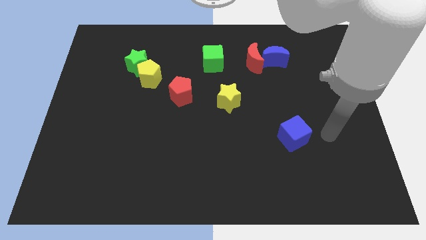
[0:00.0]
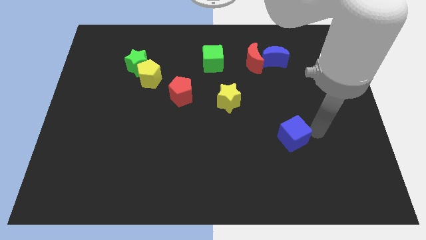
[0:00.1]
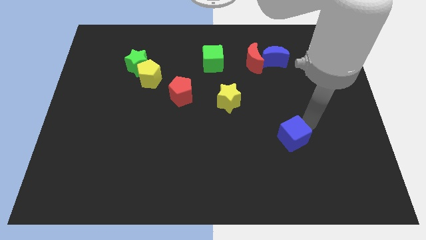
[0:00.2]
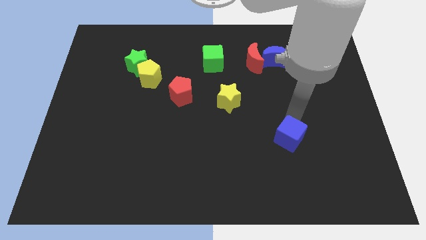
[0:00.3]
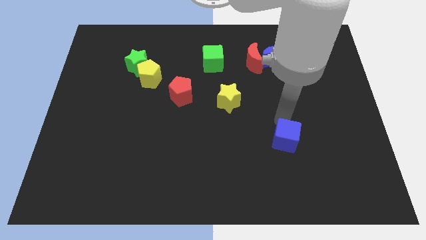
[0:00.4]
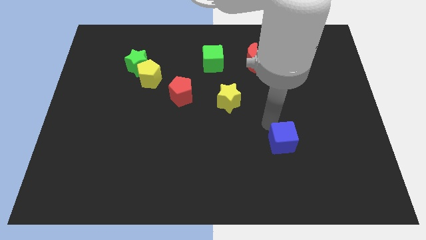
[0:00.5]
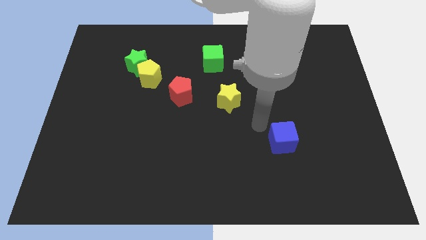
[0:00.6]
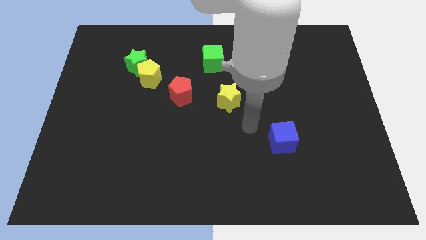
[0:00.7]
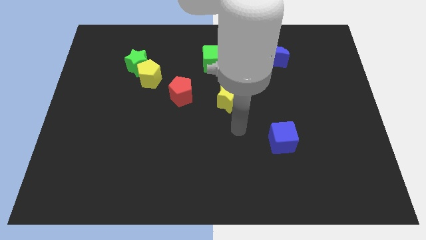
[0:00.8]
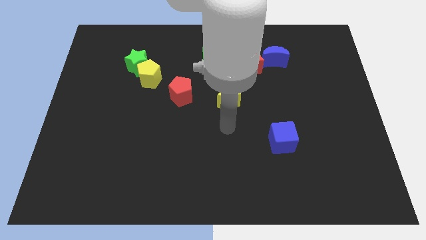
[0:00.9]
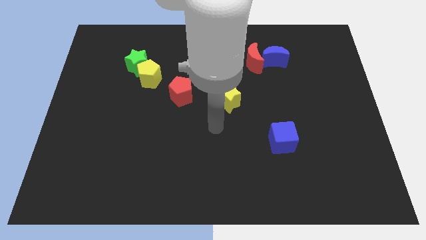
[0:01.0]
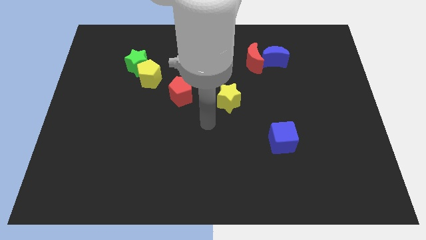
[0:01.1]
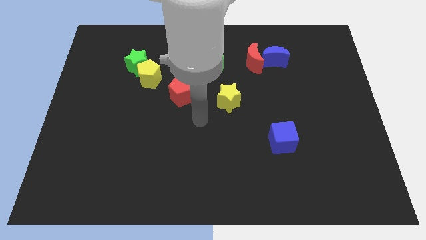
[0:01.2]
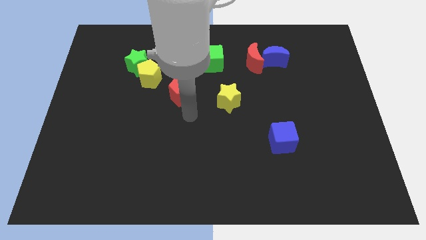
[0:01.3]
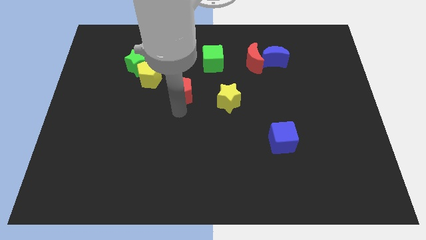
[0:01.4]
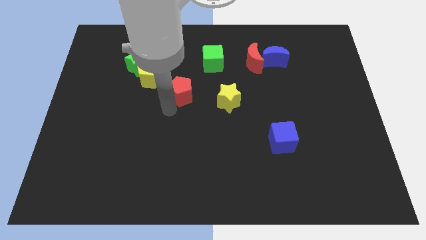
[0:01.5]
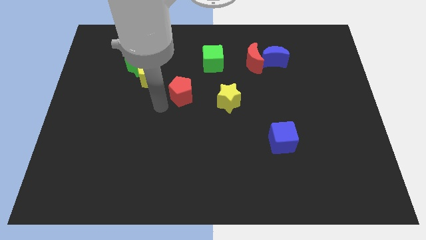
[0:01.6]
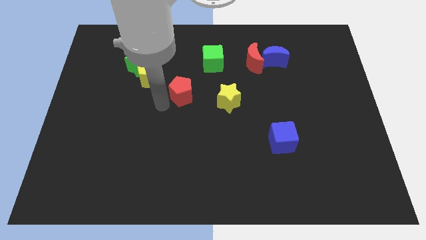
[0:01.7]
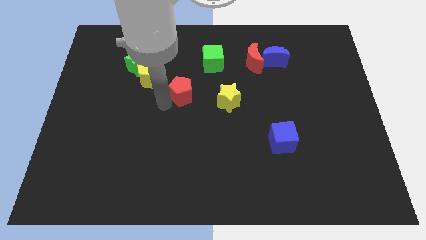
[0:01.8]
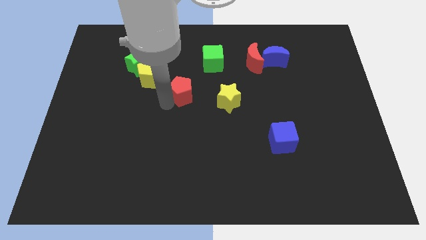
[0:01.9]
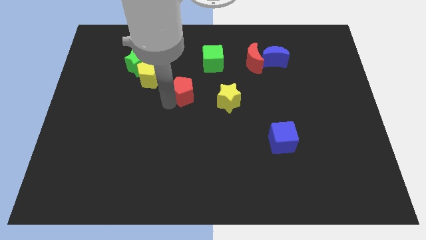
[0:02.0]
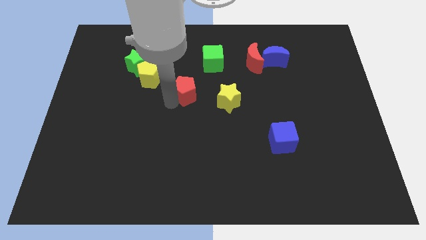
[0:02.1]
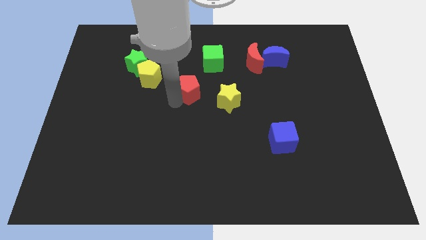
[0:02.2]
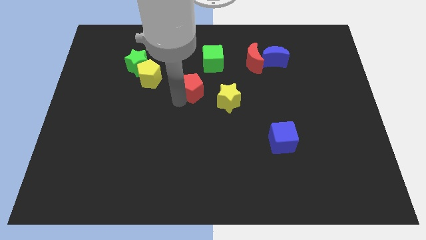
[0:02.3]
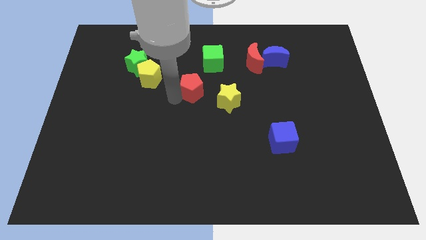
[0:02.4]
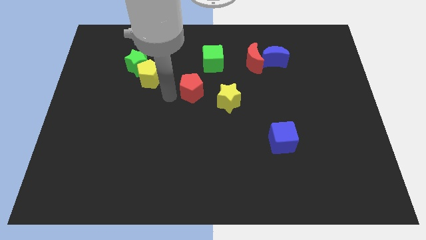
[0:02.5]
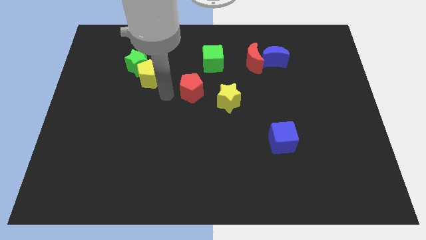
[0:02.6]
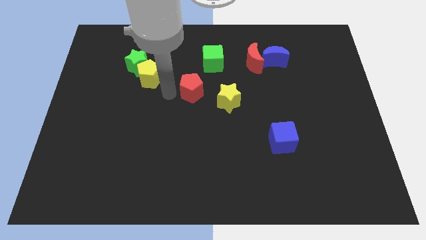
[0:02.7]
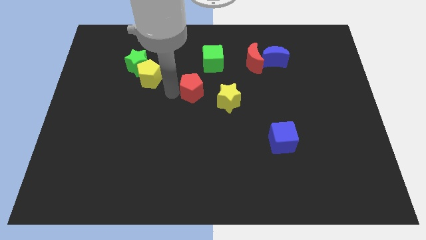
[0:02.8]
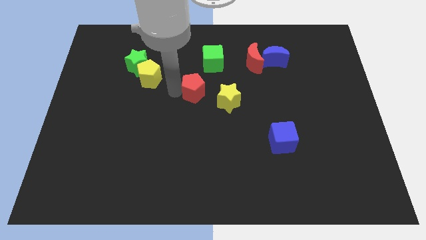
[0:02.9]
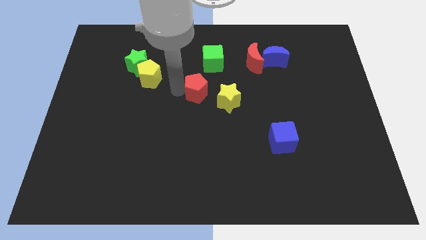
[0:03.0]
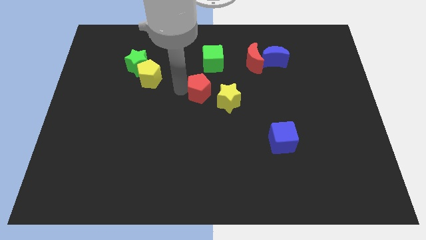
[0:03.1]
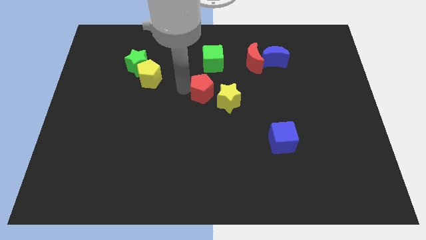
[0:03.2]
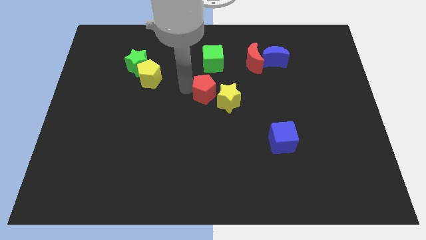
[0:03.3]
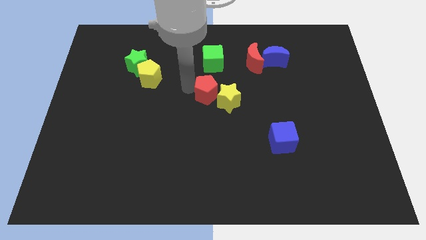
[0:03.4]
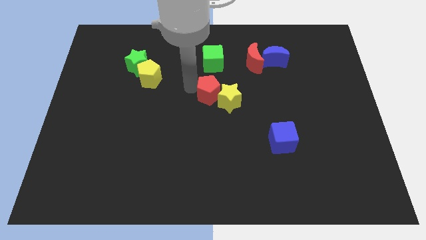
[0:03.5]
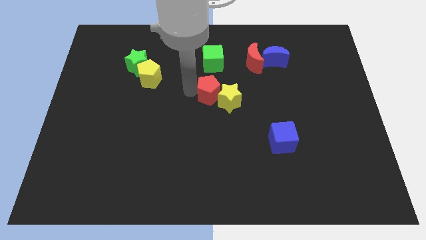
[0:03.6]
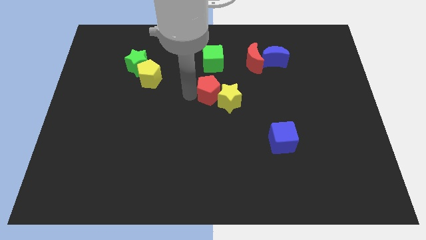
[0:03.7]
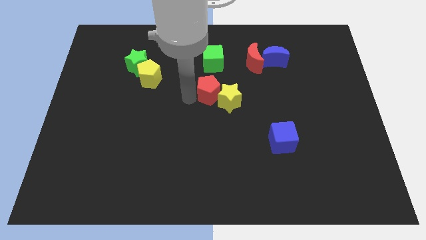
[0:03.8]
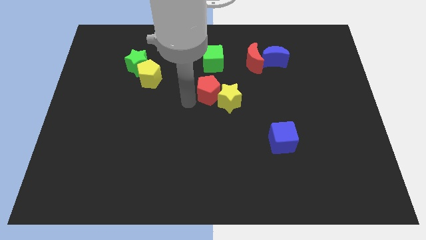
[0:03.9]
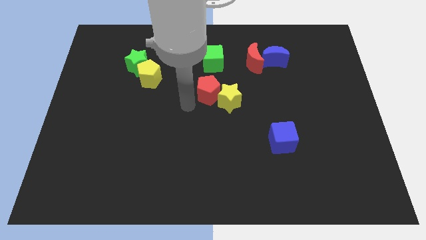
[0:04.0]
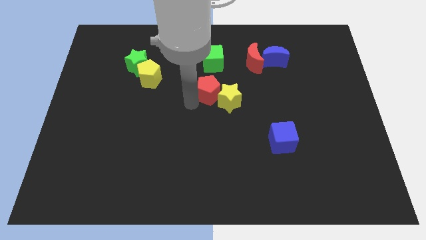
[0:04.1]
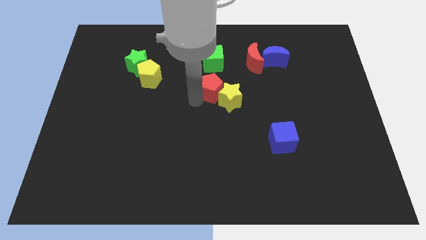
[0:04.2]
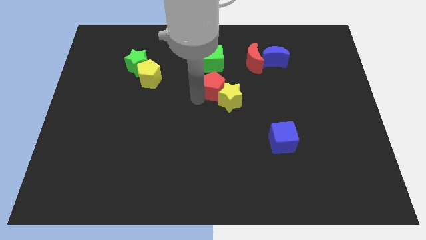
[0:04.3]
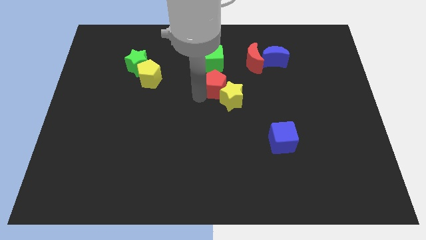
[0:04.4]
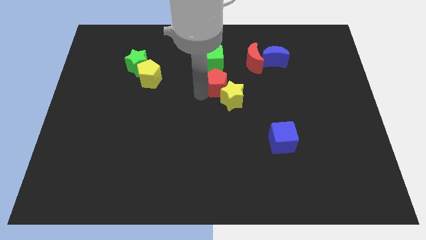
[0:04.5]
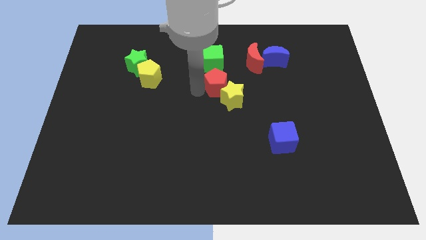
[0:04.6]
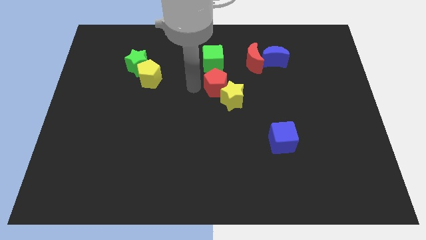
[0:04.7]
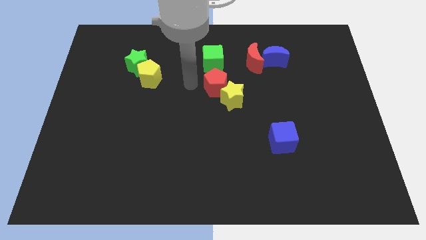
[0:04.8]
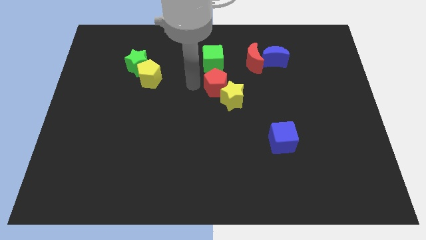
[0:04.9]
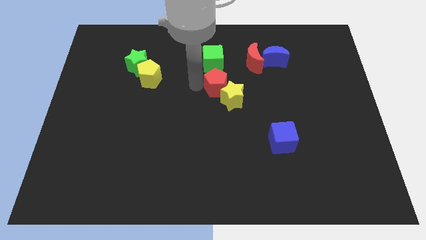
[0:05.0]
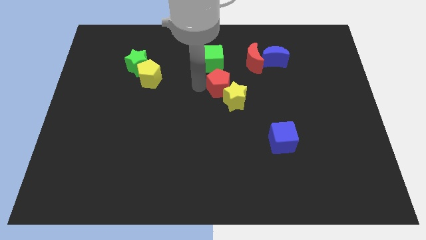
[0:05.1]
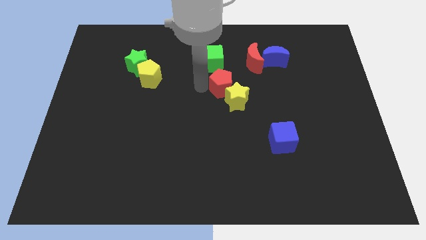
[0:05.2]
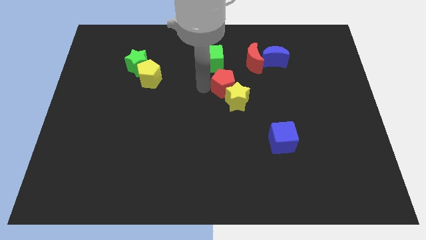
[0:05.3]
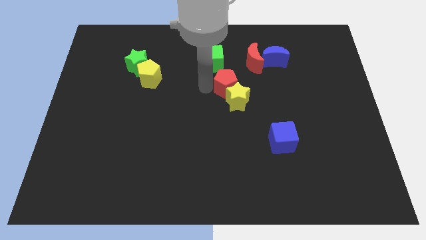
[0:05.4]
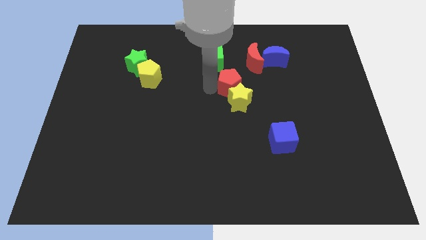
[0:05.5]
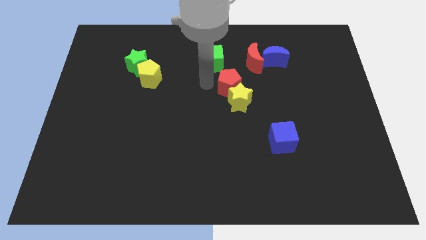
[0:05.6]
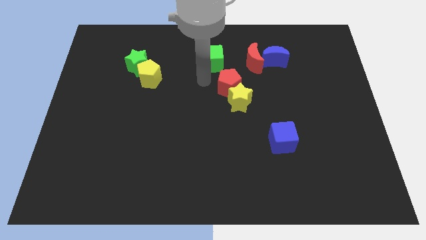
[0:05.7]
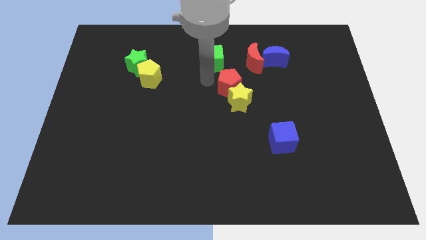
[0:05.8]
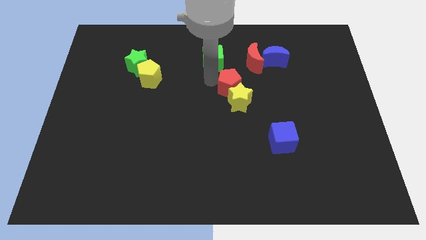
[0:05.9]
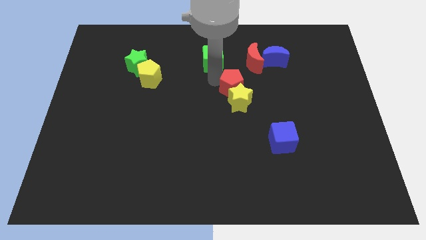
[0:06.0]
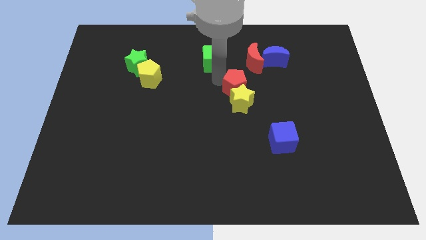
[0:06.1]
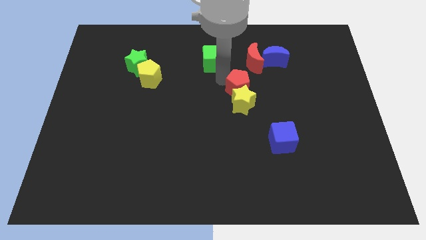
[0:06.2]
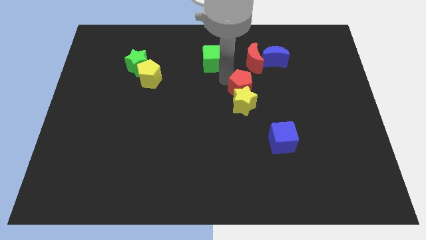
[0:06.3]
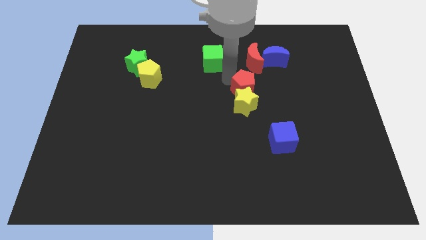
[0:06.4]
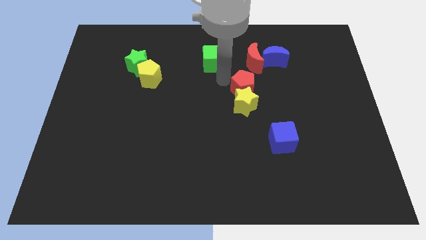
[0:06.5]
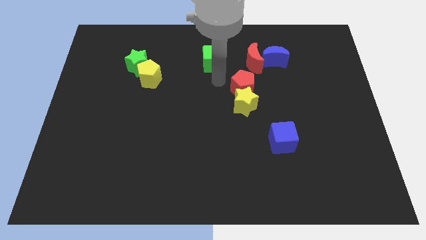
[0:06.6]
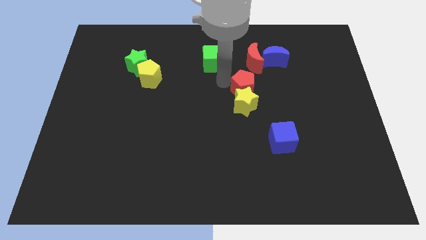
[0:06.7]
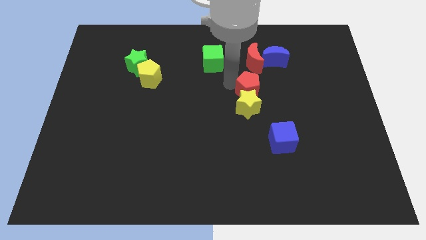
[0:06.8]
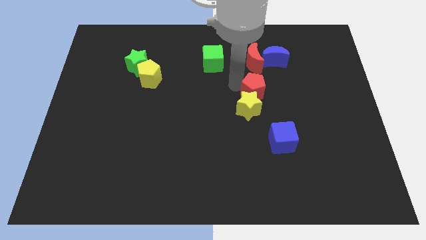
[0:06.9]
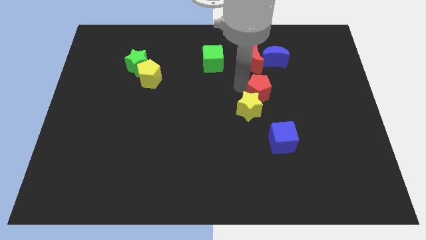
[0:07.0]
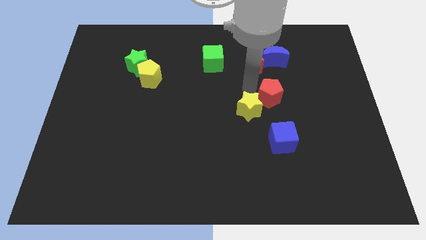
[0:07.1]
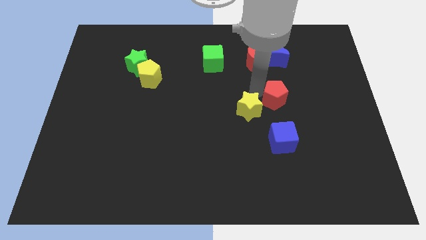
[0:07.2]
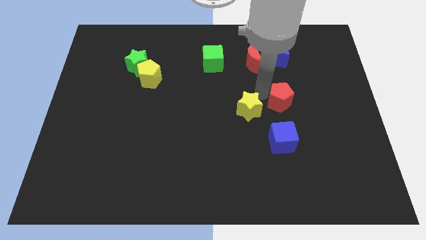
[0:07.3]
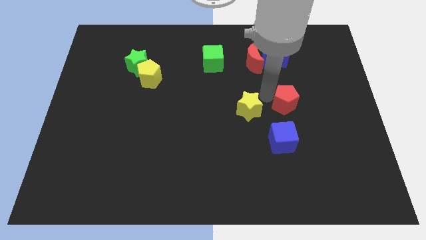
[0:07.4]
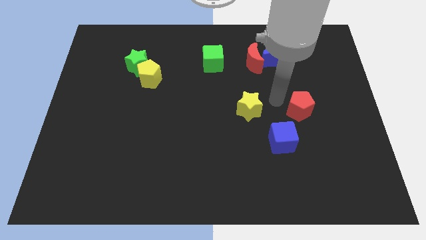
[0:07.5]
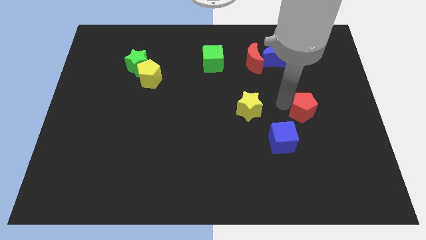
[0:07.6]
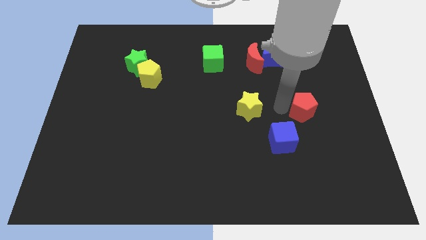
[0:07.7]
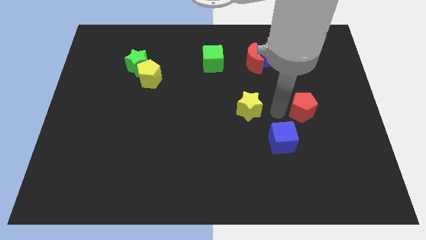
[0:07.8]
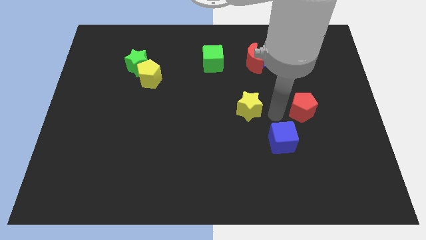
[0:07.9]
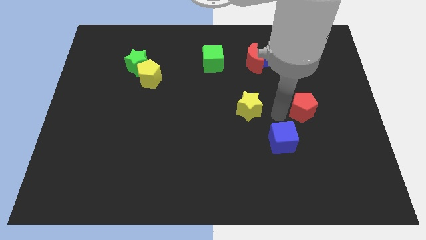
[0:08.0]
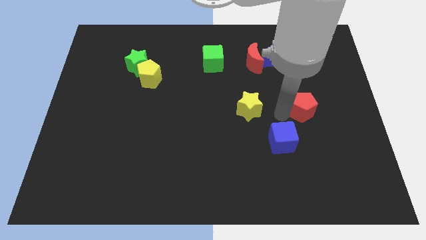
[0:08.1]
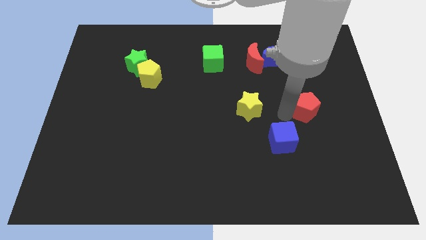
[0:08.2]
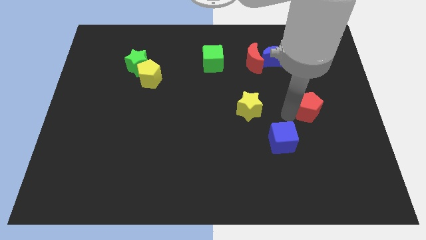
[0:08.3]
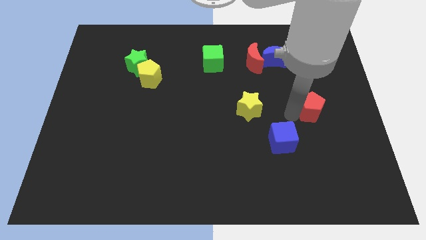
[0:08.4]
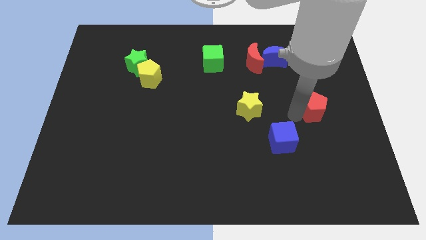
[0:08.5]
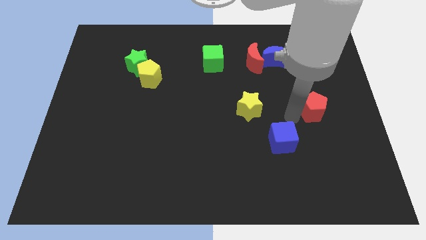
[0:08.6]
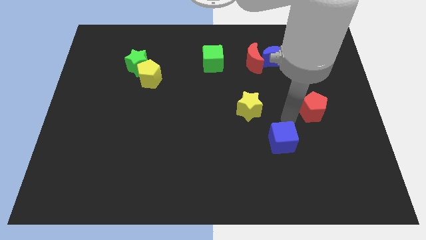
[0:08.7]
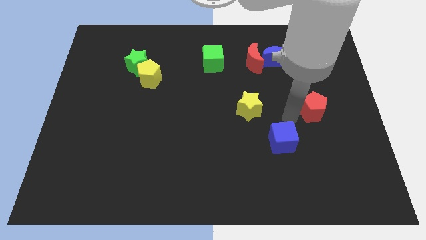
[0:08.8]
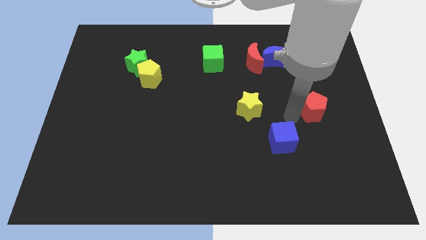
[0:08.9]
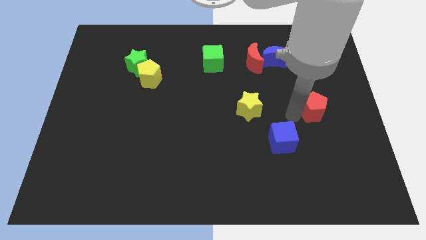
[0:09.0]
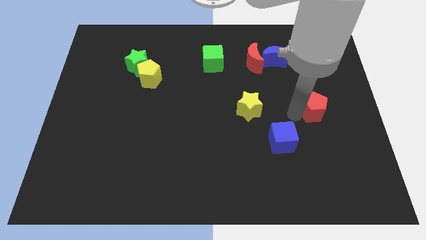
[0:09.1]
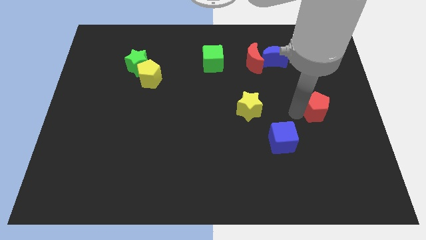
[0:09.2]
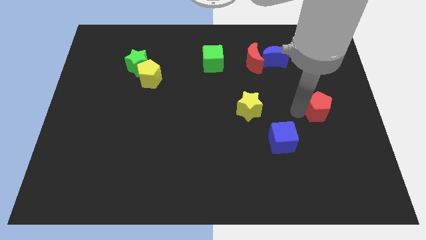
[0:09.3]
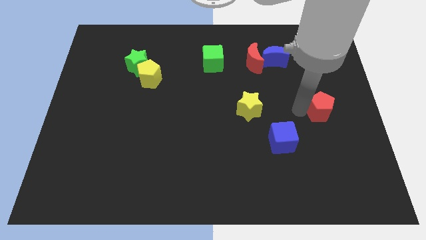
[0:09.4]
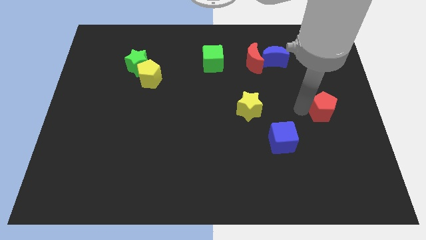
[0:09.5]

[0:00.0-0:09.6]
slide the red pentagon to the center right
